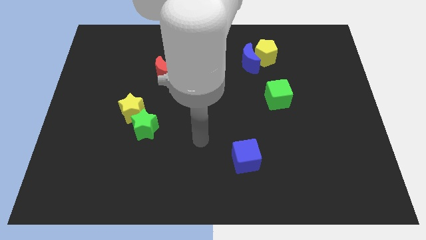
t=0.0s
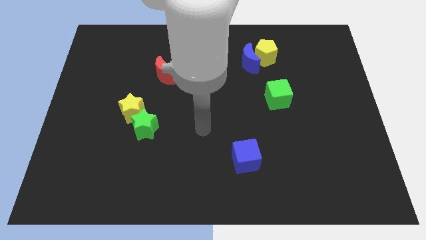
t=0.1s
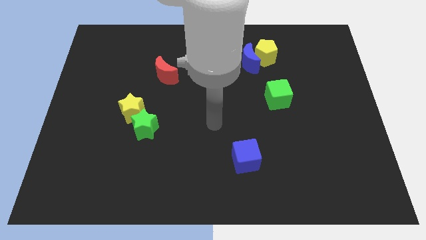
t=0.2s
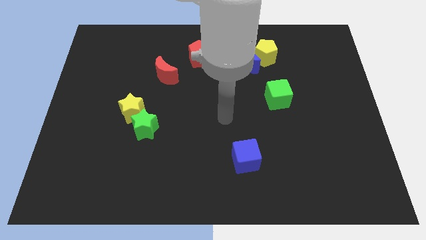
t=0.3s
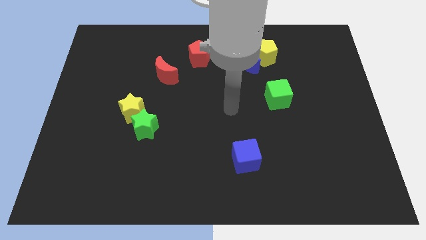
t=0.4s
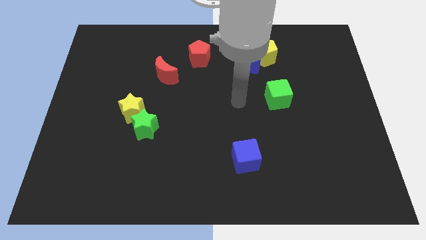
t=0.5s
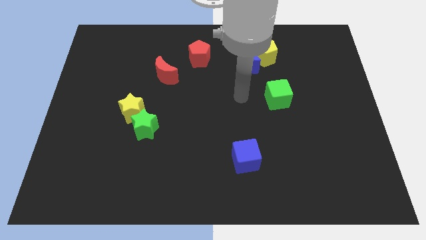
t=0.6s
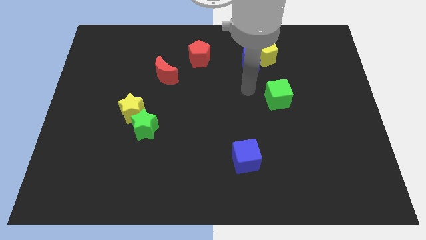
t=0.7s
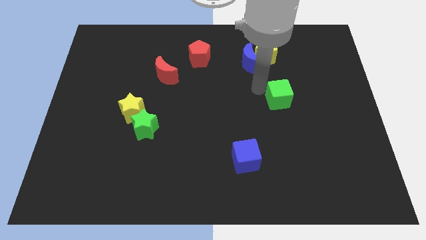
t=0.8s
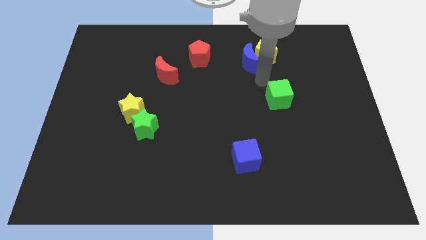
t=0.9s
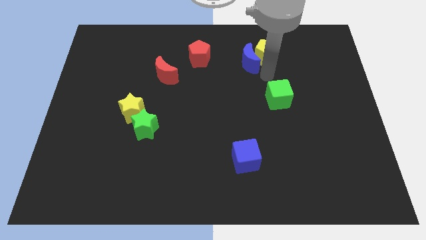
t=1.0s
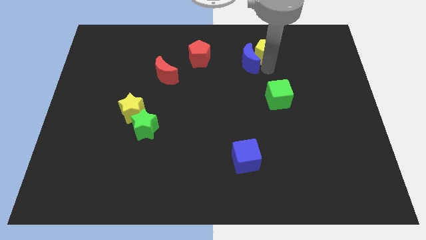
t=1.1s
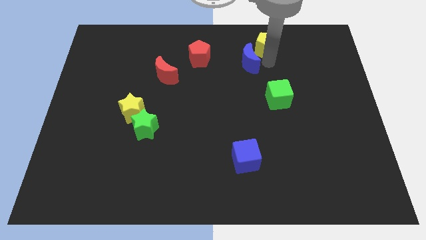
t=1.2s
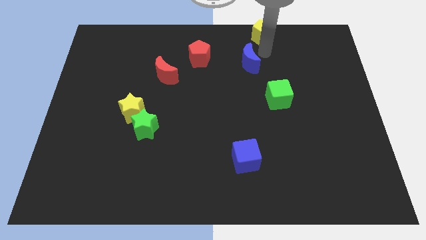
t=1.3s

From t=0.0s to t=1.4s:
move the blue moon away from the yellow pentagon

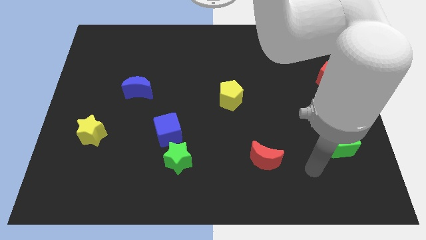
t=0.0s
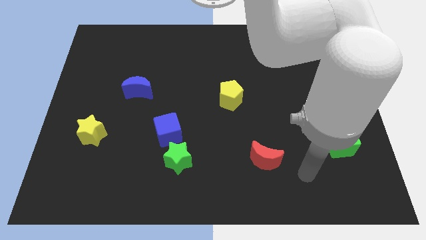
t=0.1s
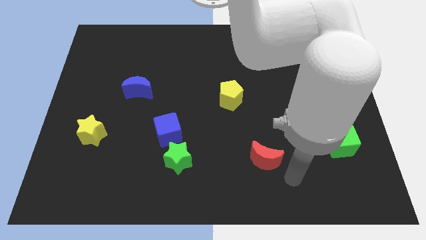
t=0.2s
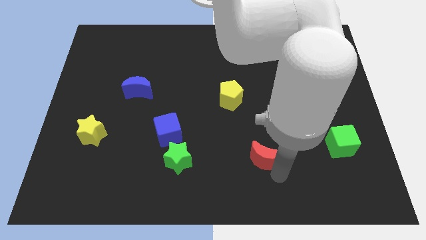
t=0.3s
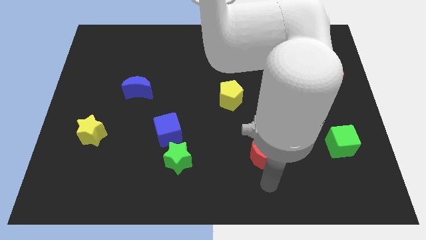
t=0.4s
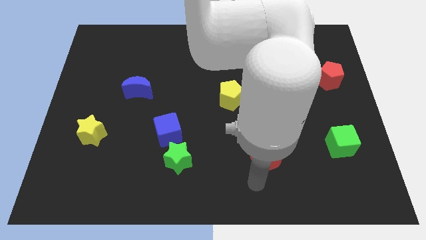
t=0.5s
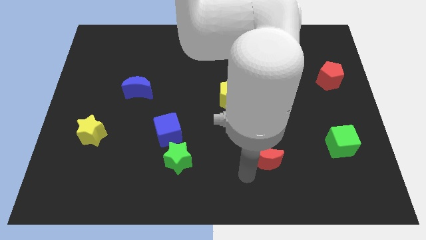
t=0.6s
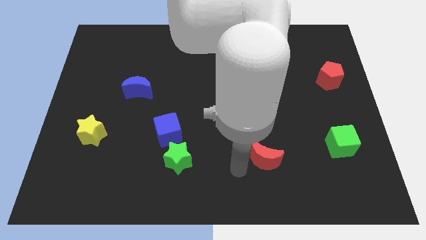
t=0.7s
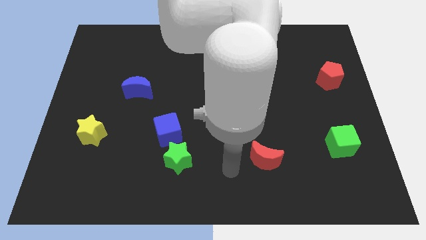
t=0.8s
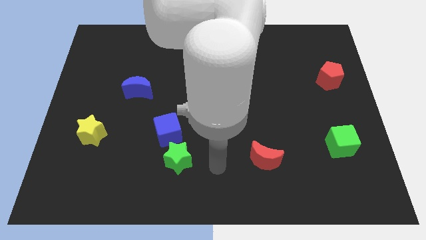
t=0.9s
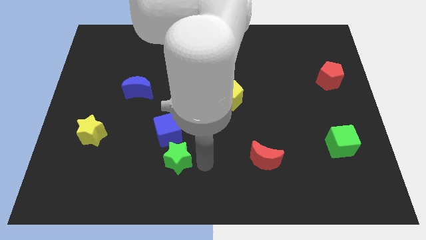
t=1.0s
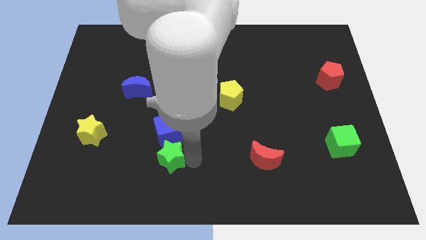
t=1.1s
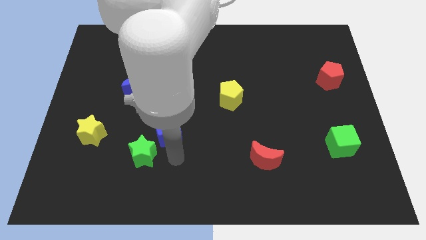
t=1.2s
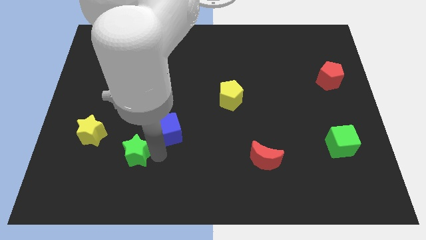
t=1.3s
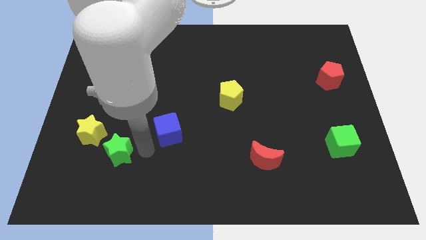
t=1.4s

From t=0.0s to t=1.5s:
move the blue cube away from the green star

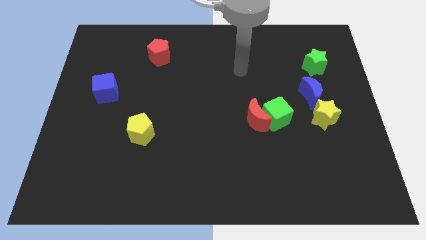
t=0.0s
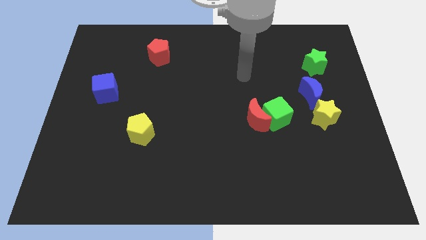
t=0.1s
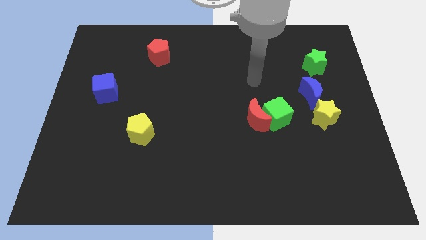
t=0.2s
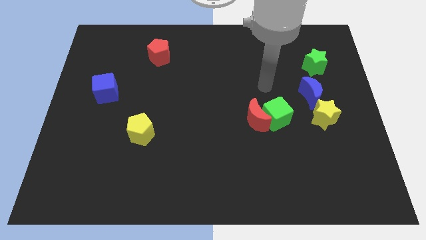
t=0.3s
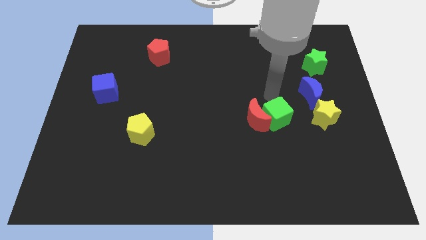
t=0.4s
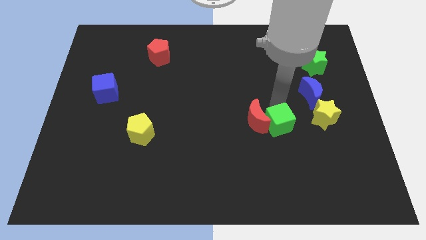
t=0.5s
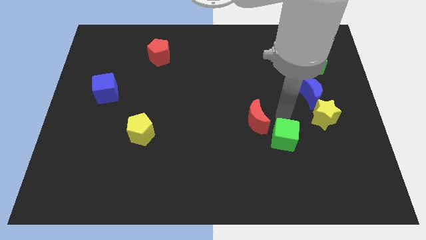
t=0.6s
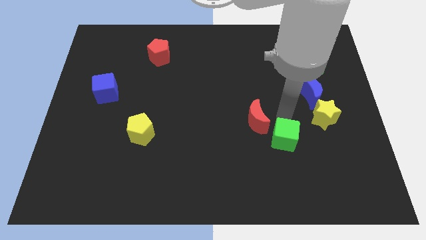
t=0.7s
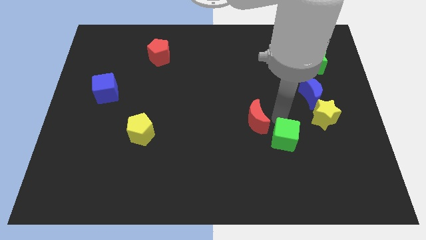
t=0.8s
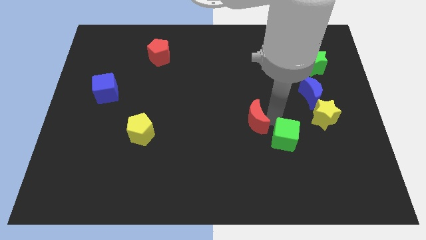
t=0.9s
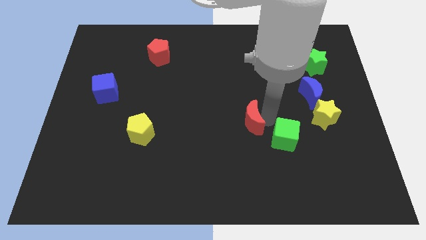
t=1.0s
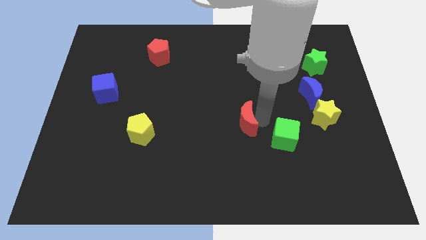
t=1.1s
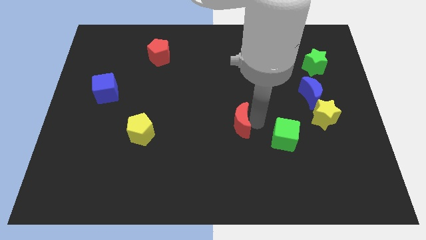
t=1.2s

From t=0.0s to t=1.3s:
pull the red moon apart from the green cube

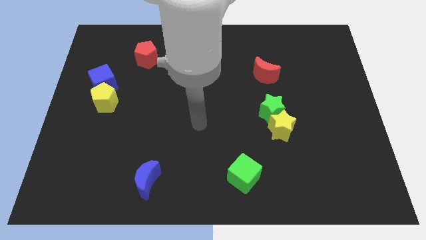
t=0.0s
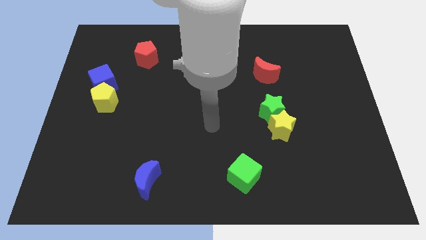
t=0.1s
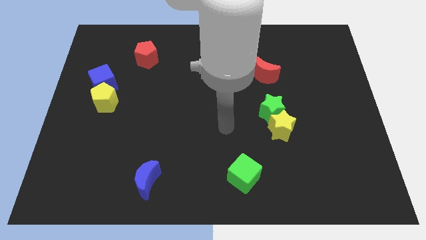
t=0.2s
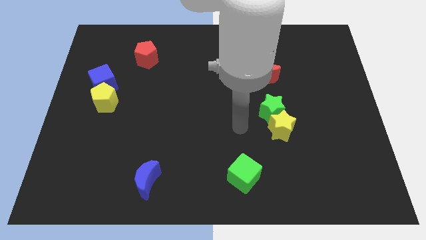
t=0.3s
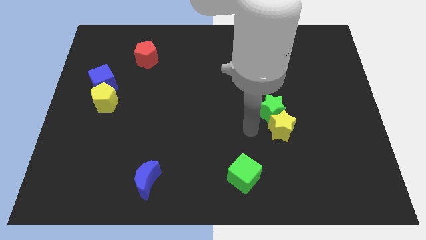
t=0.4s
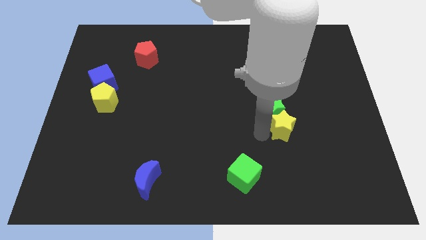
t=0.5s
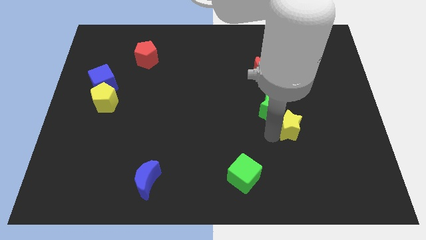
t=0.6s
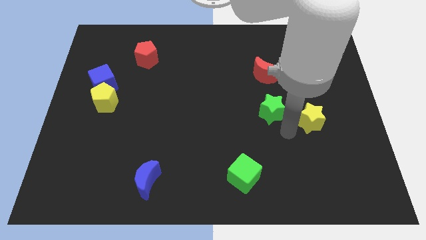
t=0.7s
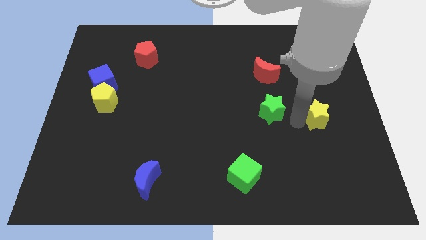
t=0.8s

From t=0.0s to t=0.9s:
move the green star away from the yellow star

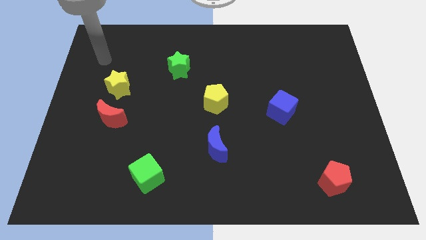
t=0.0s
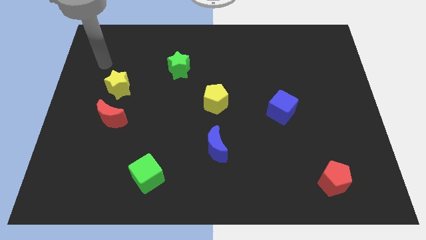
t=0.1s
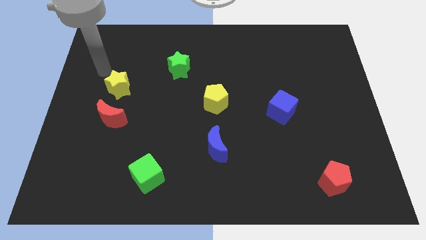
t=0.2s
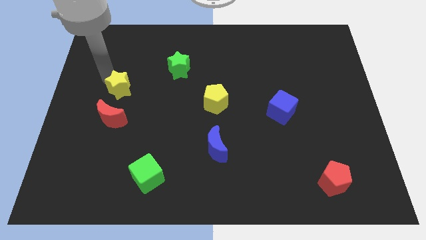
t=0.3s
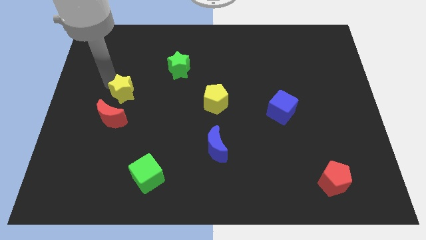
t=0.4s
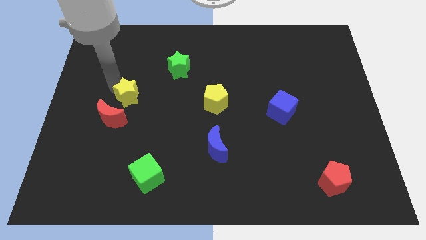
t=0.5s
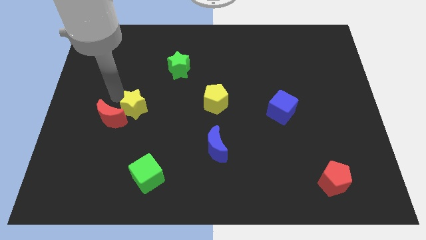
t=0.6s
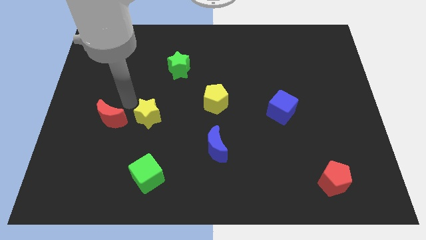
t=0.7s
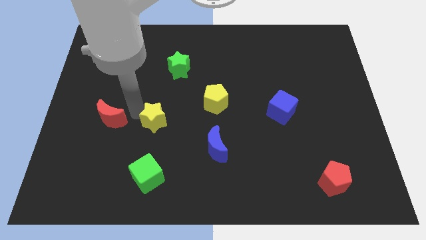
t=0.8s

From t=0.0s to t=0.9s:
pull the red moon apart from the yellow star

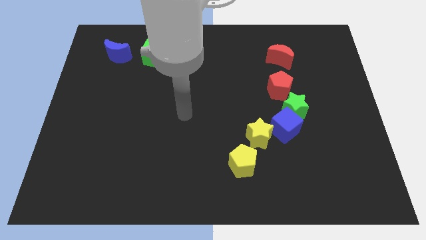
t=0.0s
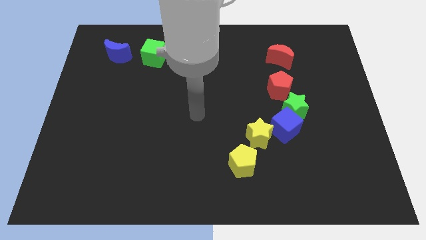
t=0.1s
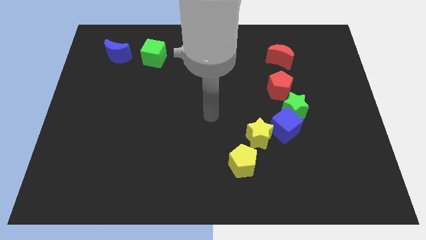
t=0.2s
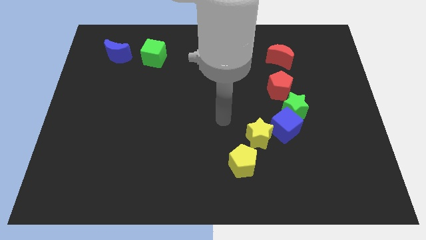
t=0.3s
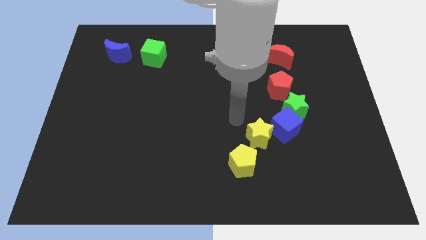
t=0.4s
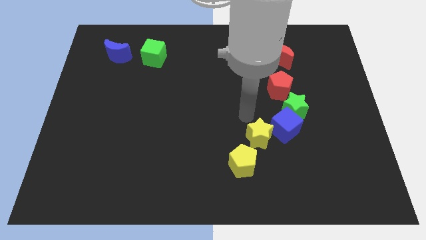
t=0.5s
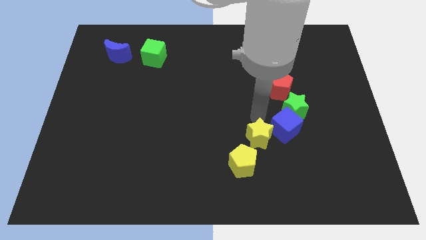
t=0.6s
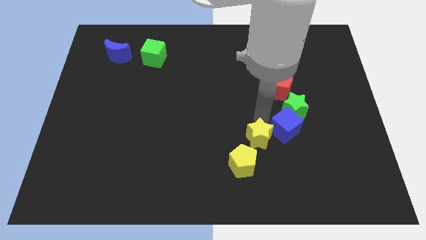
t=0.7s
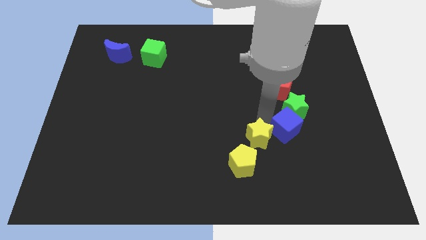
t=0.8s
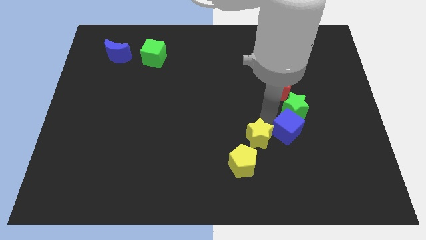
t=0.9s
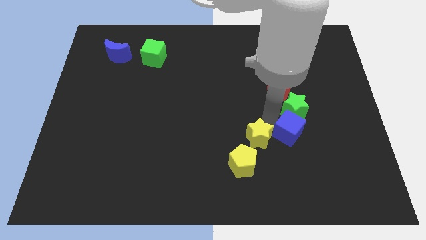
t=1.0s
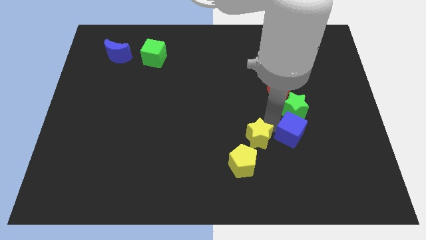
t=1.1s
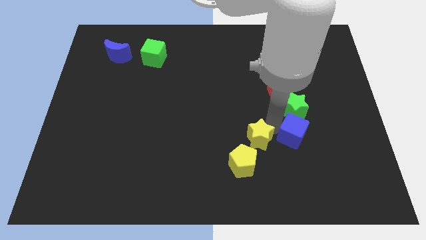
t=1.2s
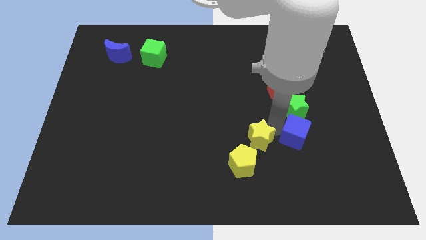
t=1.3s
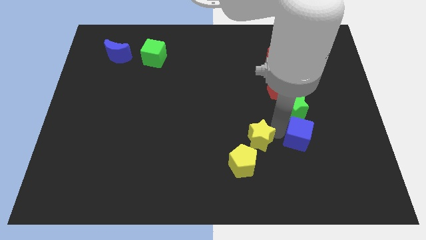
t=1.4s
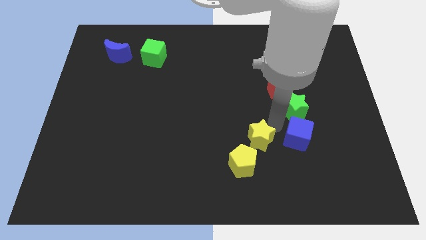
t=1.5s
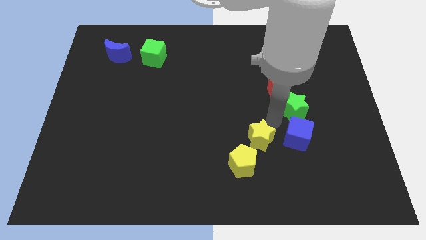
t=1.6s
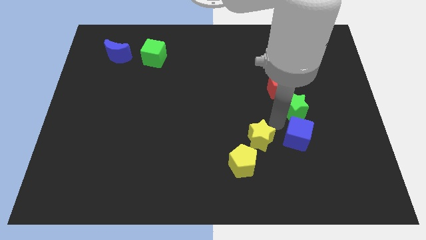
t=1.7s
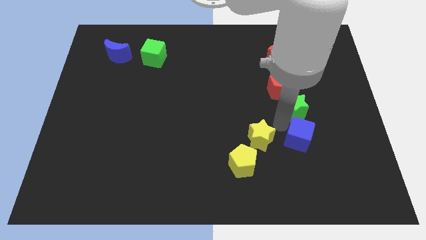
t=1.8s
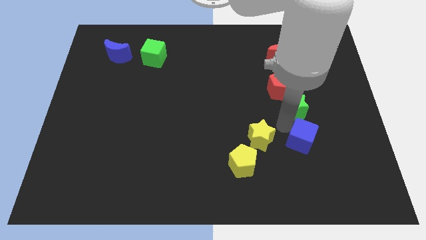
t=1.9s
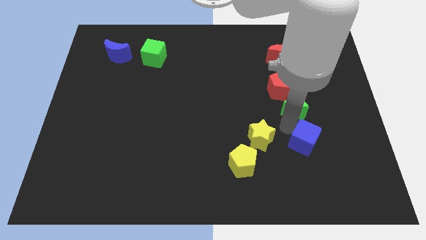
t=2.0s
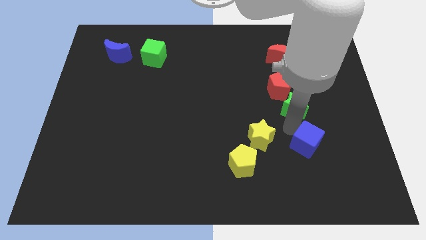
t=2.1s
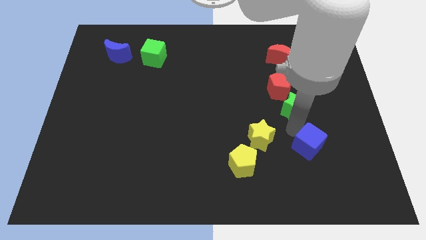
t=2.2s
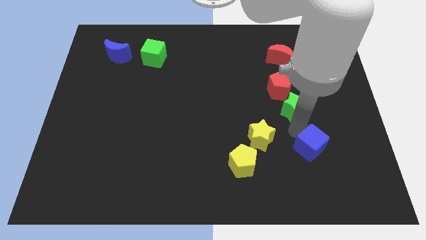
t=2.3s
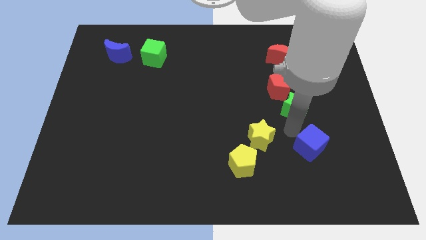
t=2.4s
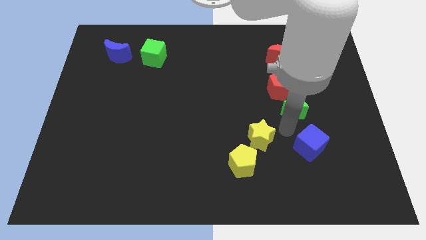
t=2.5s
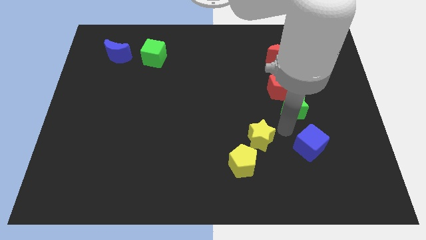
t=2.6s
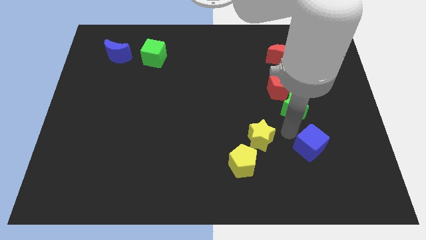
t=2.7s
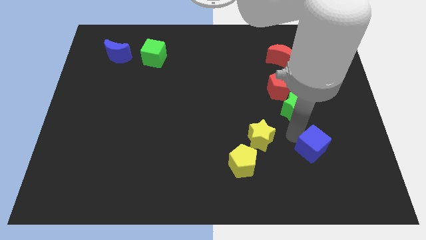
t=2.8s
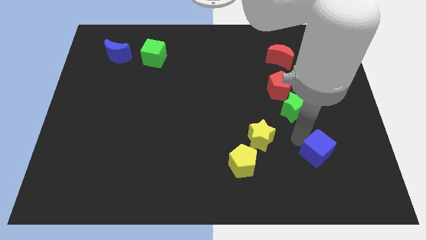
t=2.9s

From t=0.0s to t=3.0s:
move the blue cube away from the green star and yellow star

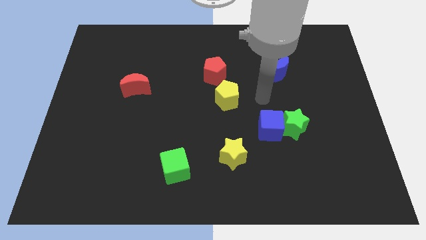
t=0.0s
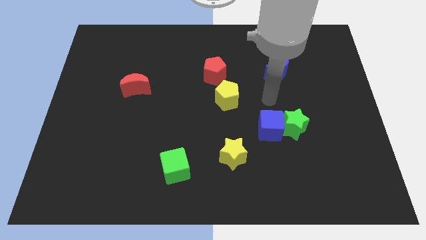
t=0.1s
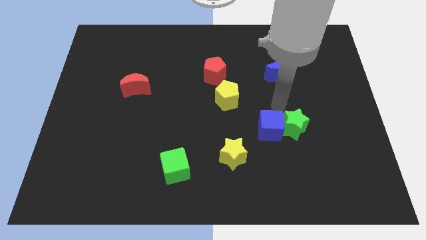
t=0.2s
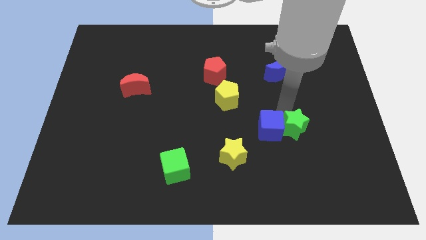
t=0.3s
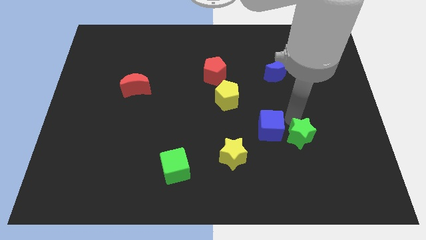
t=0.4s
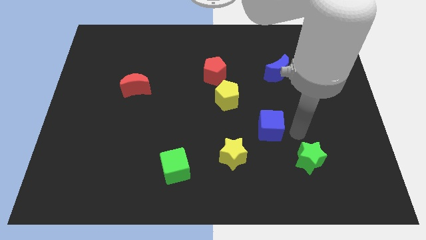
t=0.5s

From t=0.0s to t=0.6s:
pull the blue cube apart from the green star
